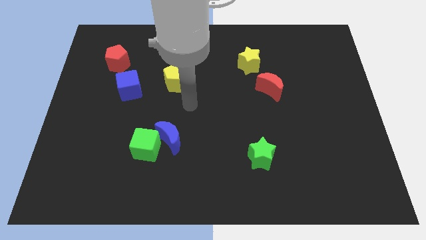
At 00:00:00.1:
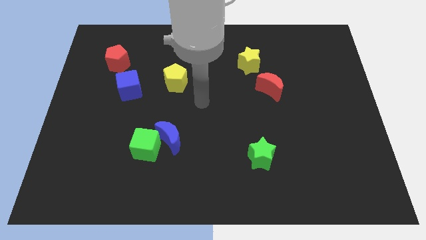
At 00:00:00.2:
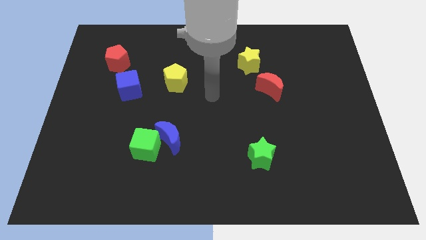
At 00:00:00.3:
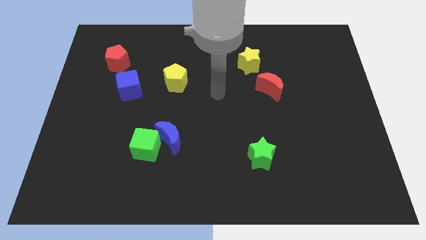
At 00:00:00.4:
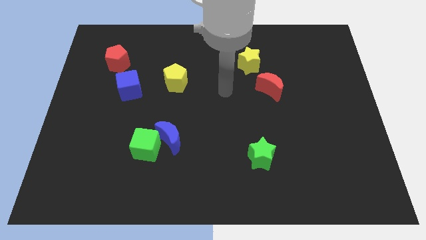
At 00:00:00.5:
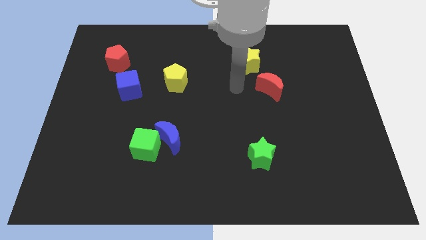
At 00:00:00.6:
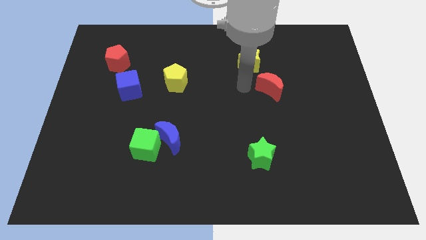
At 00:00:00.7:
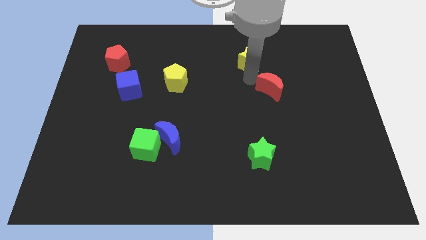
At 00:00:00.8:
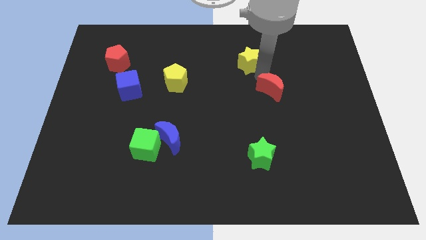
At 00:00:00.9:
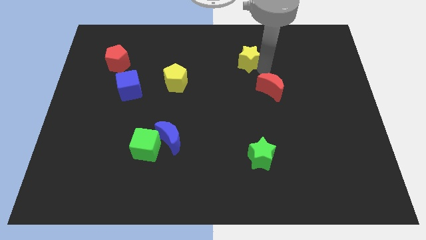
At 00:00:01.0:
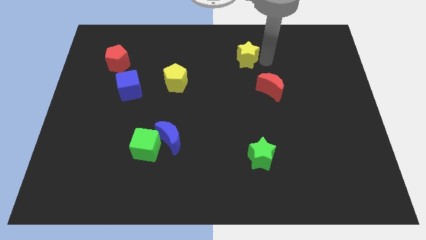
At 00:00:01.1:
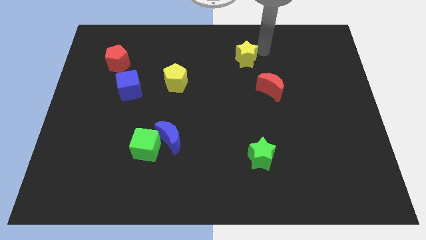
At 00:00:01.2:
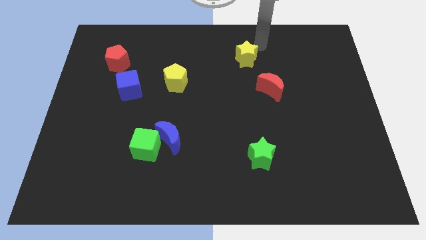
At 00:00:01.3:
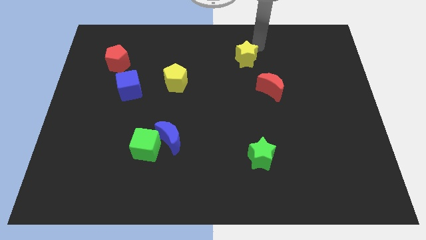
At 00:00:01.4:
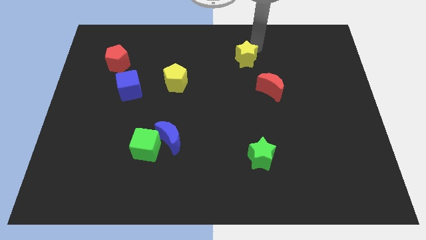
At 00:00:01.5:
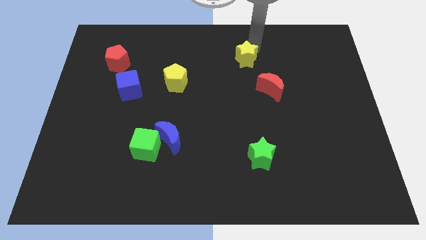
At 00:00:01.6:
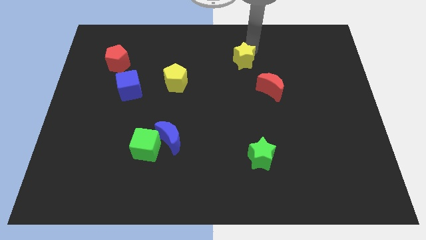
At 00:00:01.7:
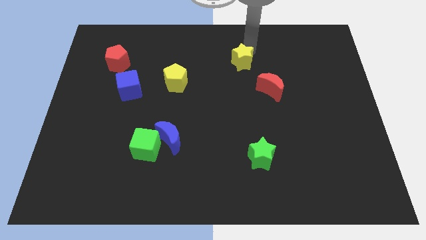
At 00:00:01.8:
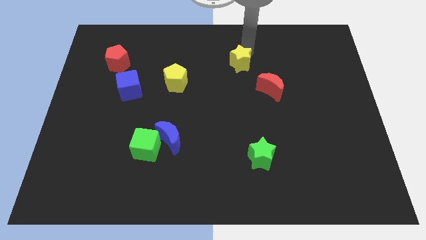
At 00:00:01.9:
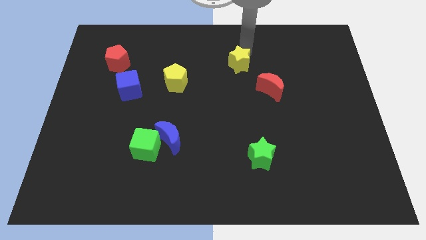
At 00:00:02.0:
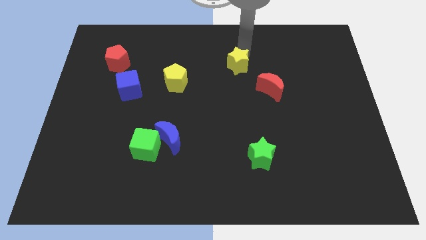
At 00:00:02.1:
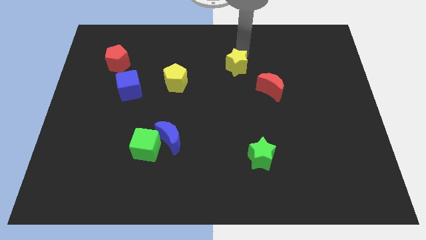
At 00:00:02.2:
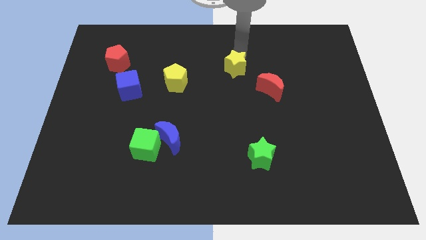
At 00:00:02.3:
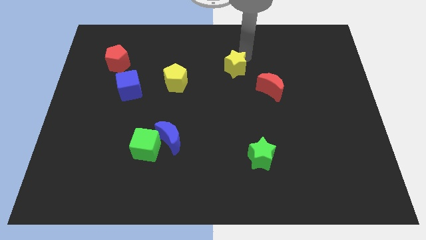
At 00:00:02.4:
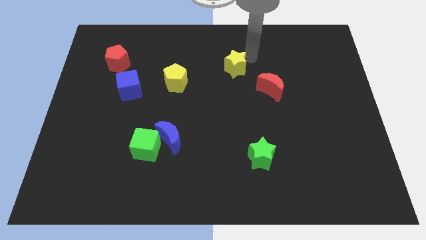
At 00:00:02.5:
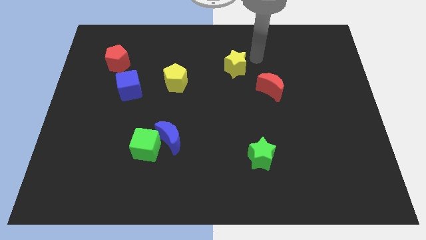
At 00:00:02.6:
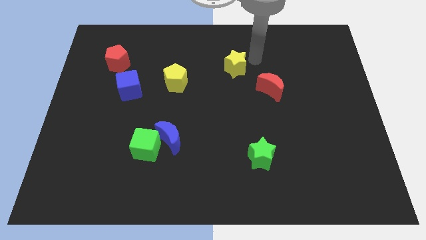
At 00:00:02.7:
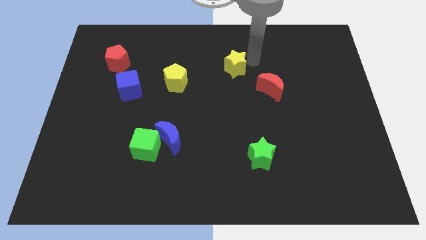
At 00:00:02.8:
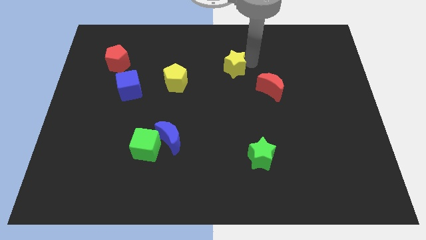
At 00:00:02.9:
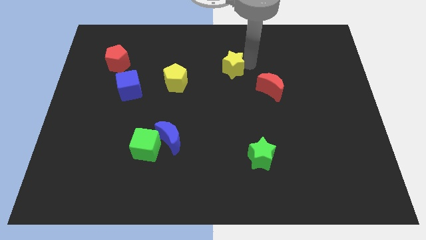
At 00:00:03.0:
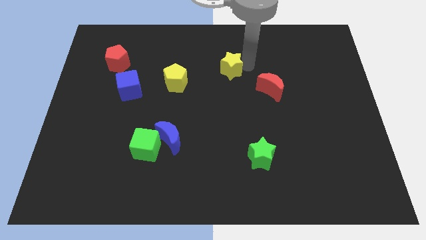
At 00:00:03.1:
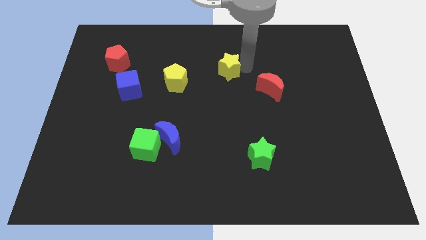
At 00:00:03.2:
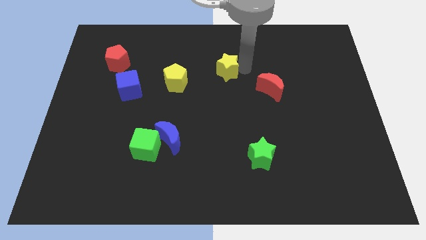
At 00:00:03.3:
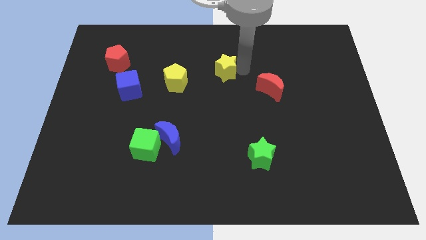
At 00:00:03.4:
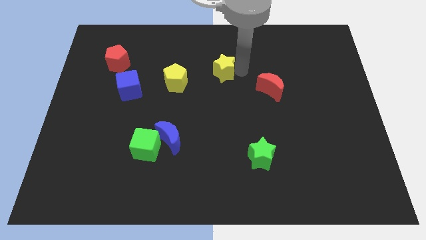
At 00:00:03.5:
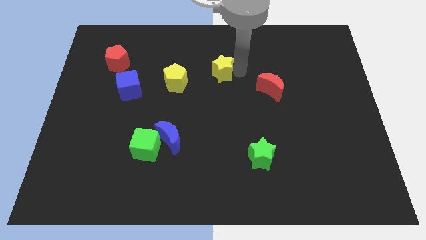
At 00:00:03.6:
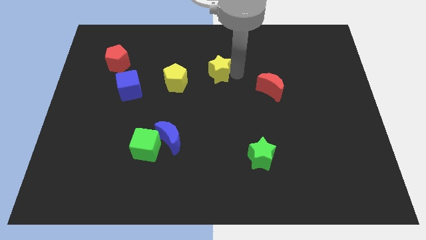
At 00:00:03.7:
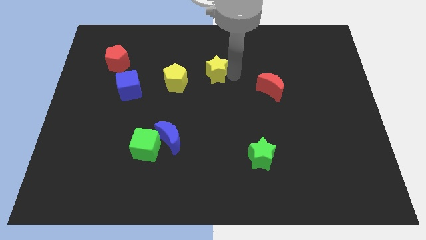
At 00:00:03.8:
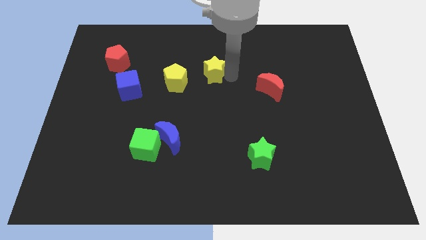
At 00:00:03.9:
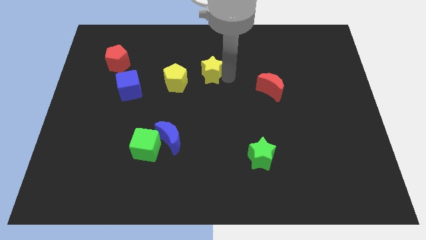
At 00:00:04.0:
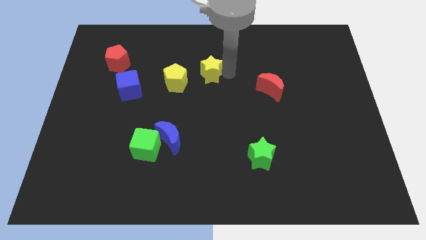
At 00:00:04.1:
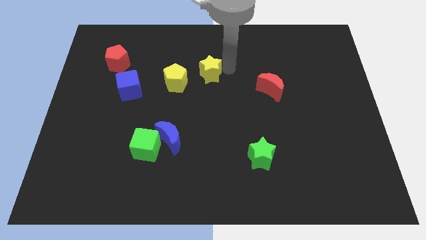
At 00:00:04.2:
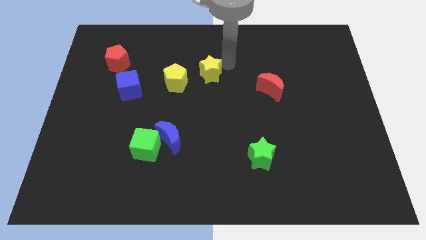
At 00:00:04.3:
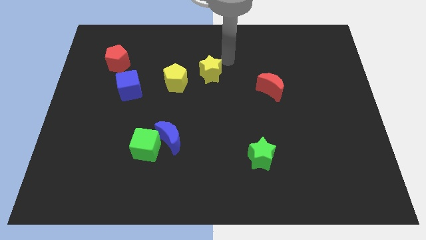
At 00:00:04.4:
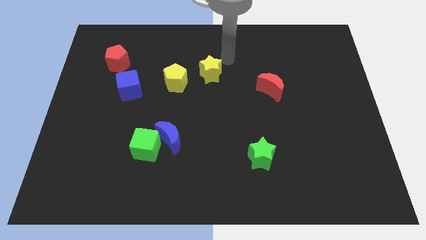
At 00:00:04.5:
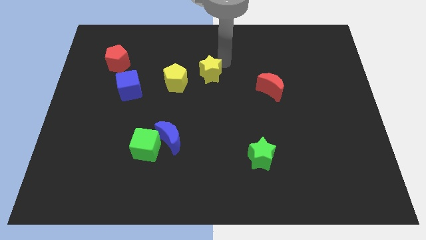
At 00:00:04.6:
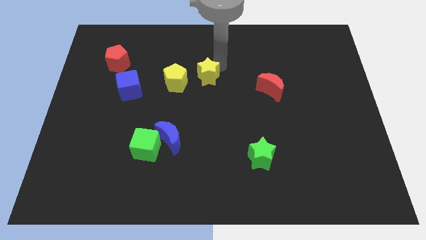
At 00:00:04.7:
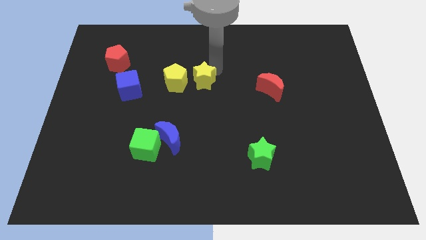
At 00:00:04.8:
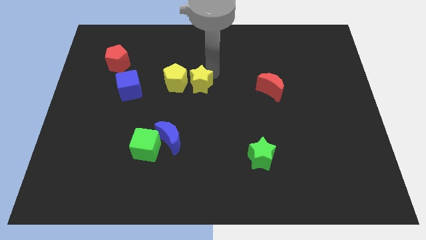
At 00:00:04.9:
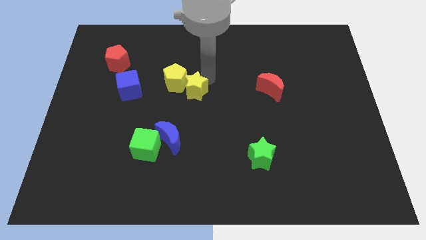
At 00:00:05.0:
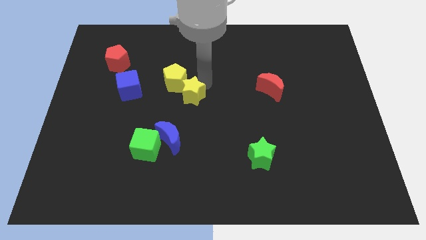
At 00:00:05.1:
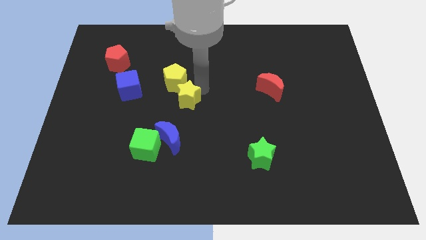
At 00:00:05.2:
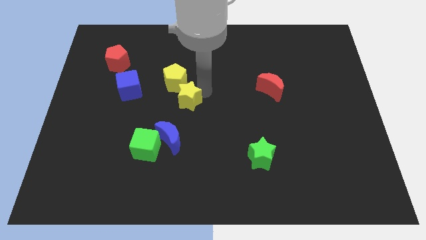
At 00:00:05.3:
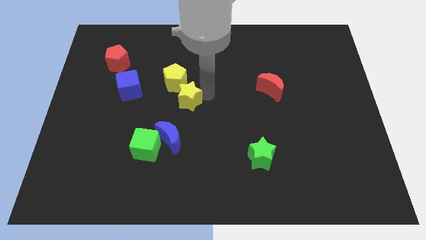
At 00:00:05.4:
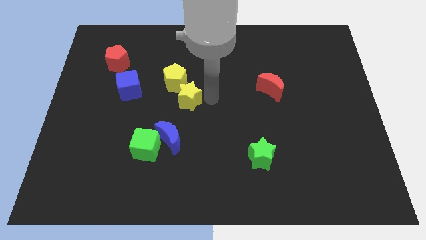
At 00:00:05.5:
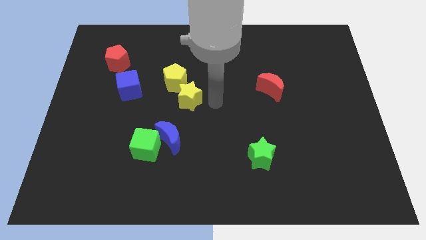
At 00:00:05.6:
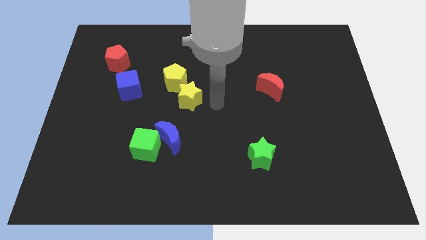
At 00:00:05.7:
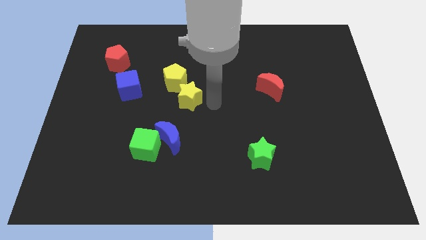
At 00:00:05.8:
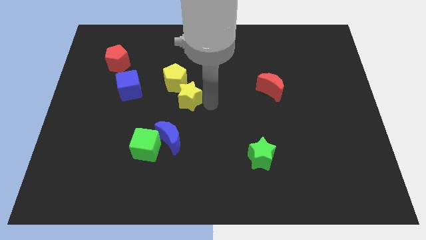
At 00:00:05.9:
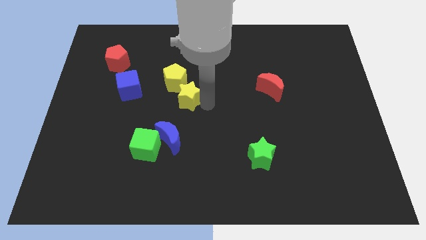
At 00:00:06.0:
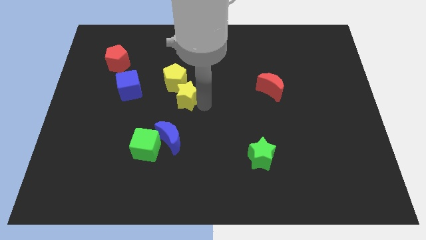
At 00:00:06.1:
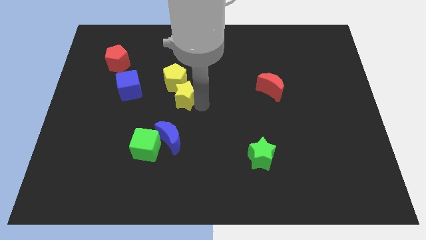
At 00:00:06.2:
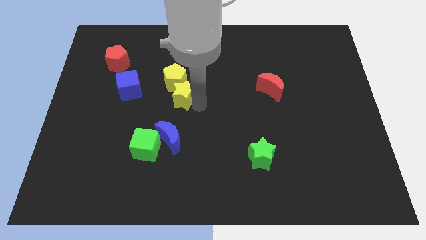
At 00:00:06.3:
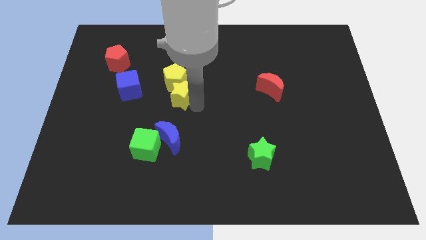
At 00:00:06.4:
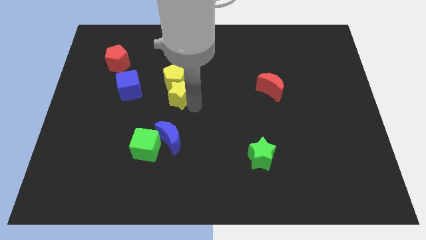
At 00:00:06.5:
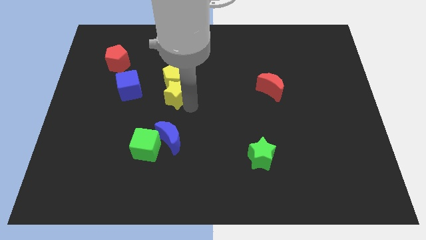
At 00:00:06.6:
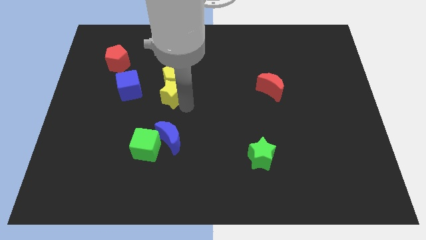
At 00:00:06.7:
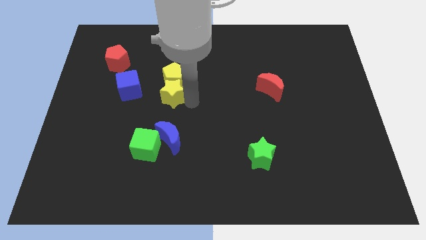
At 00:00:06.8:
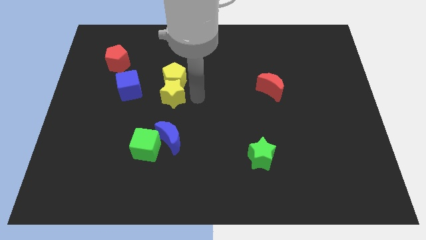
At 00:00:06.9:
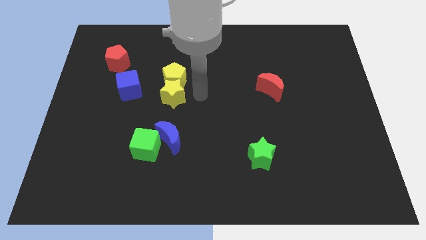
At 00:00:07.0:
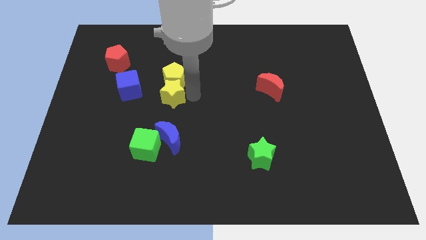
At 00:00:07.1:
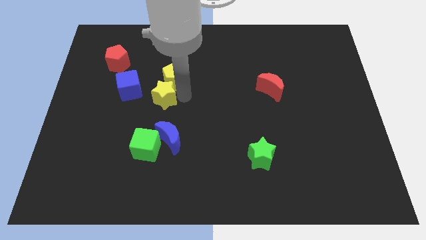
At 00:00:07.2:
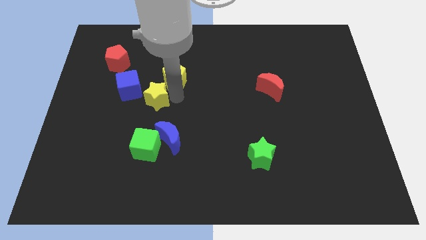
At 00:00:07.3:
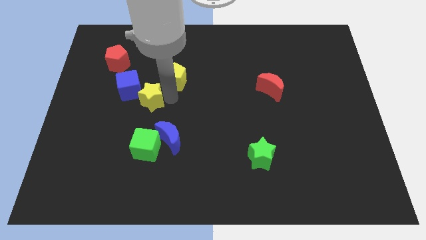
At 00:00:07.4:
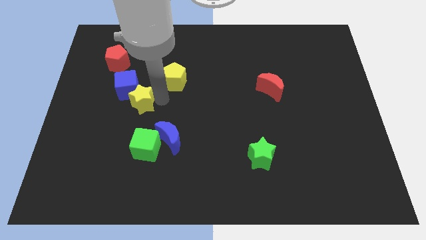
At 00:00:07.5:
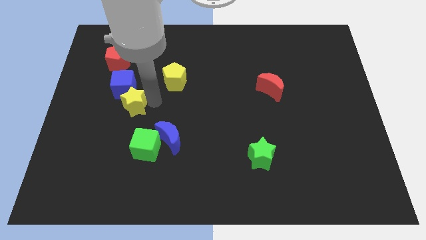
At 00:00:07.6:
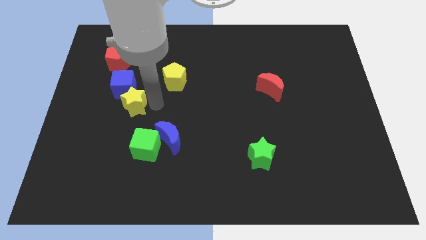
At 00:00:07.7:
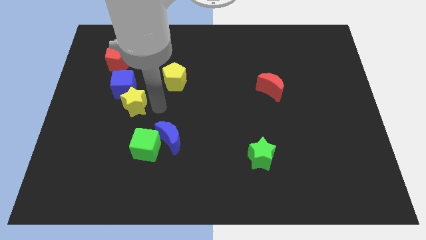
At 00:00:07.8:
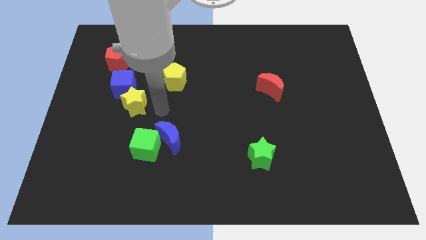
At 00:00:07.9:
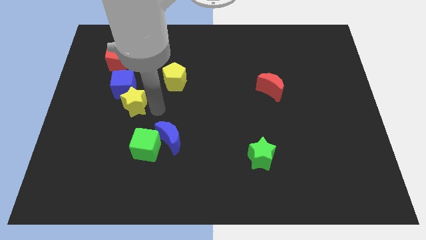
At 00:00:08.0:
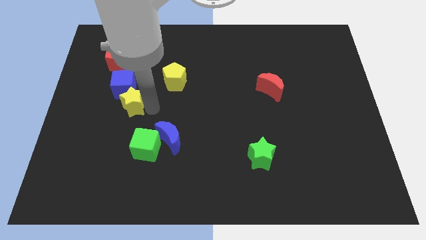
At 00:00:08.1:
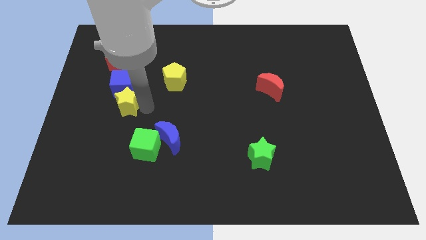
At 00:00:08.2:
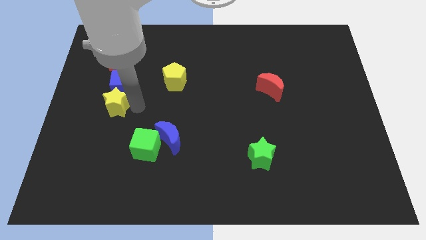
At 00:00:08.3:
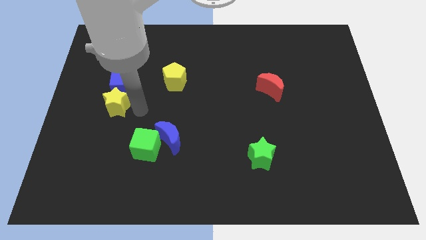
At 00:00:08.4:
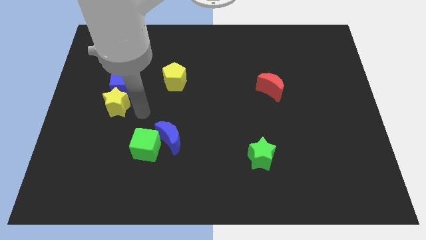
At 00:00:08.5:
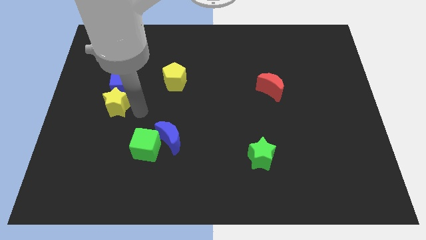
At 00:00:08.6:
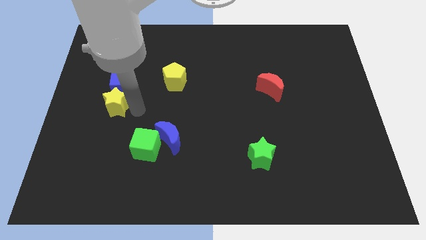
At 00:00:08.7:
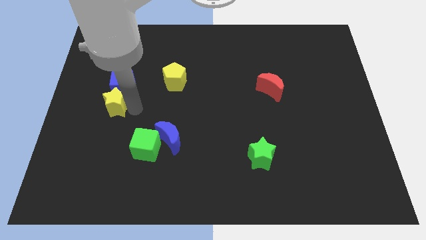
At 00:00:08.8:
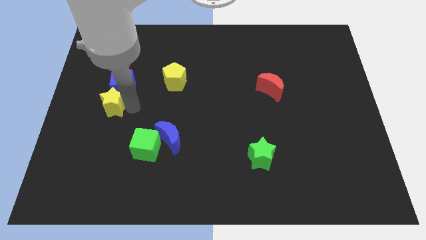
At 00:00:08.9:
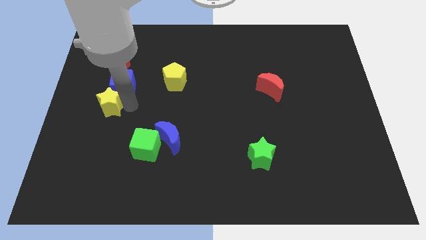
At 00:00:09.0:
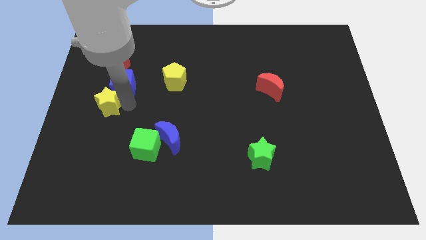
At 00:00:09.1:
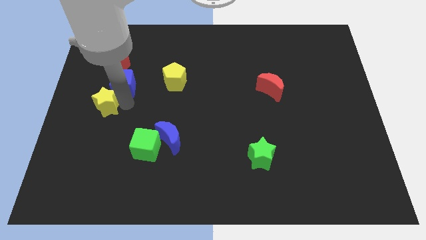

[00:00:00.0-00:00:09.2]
slide the yellow star to the left side
